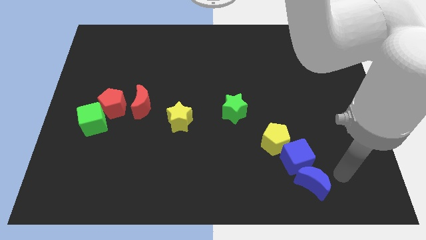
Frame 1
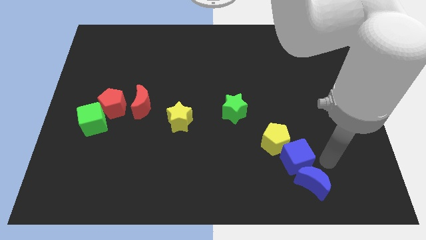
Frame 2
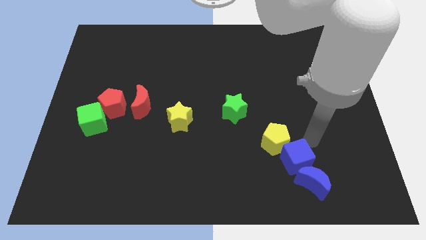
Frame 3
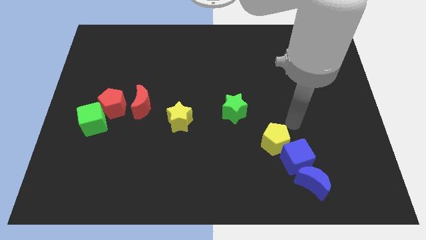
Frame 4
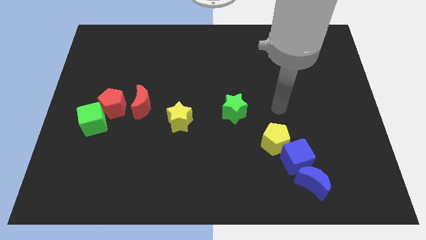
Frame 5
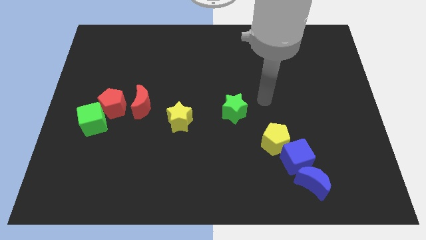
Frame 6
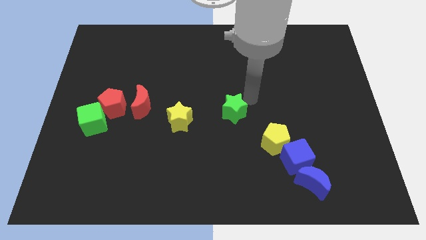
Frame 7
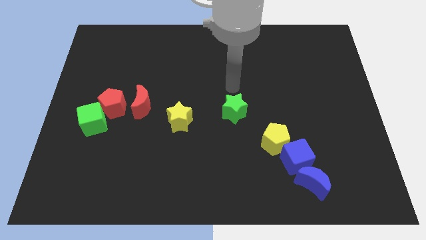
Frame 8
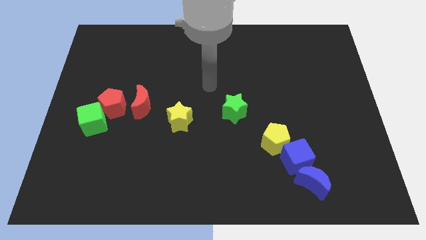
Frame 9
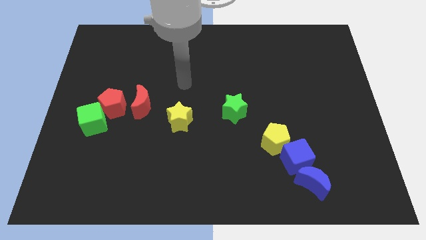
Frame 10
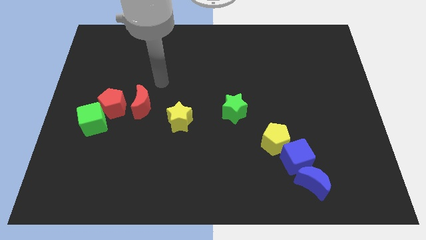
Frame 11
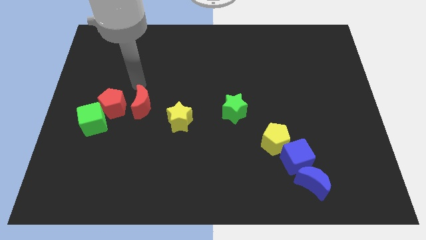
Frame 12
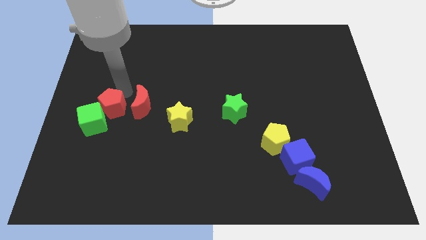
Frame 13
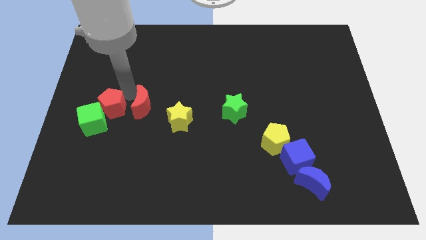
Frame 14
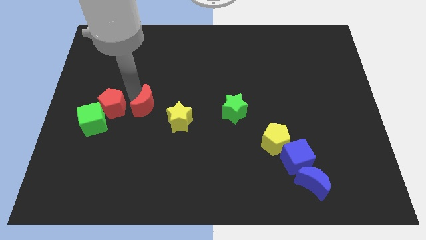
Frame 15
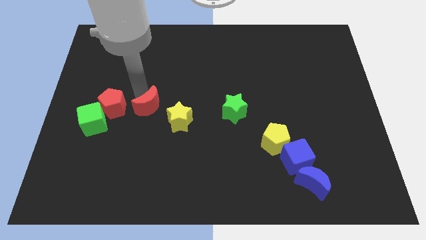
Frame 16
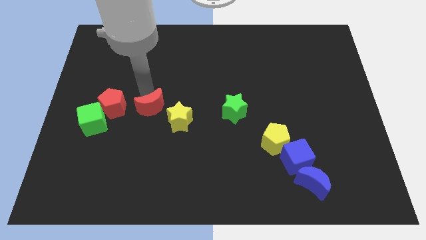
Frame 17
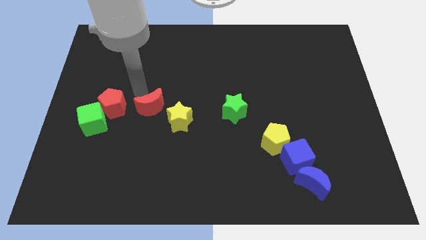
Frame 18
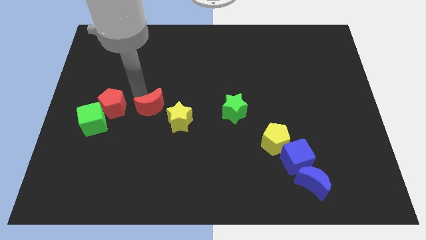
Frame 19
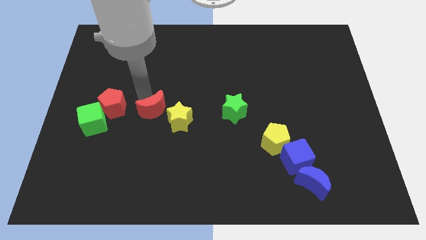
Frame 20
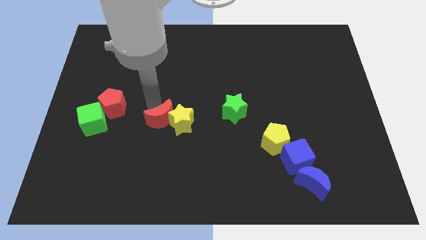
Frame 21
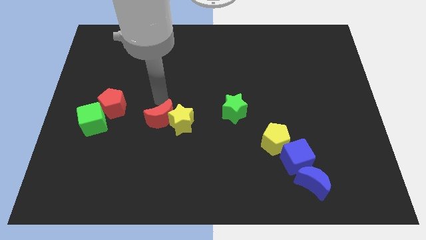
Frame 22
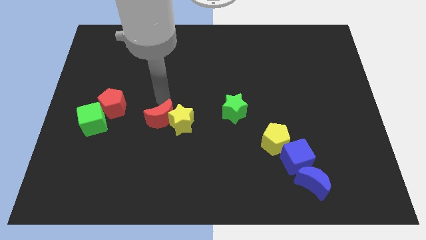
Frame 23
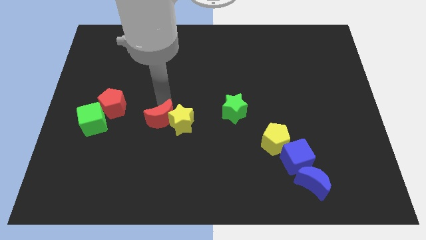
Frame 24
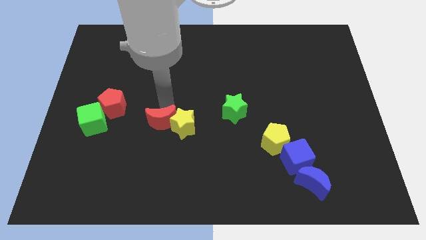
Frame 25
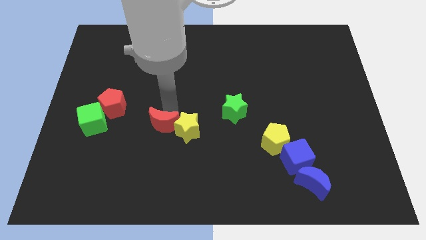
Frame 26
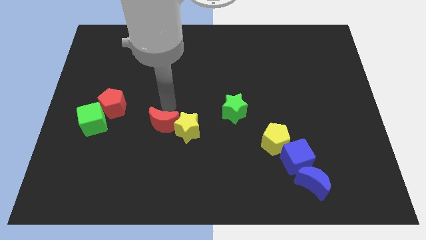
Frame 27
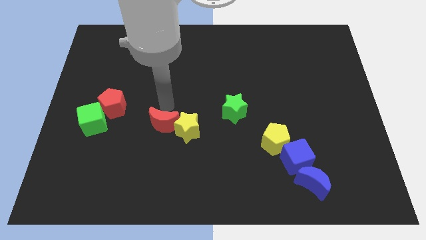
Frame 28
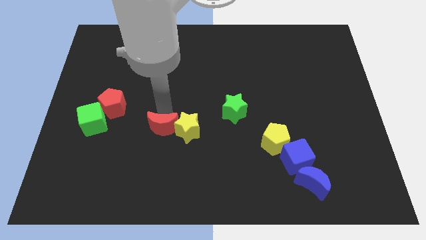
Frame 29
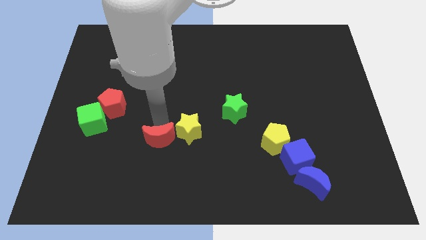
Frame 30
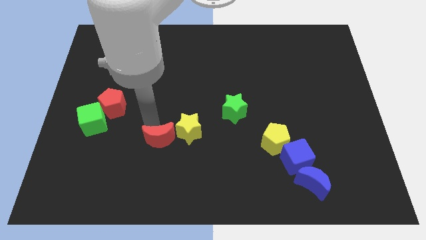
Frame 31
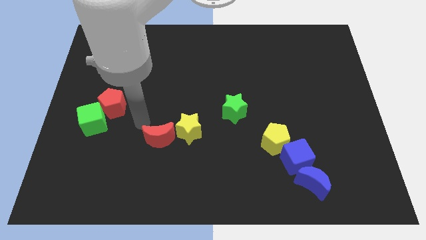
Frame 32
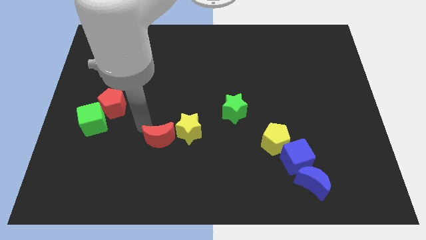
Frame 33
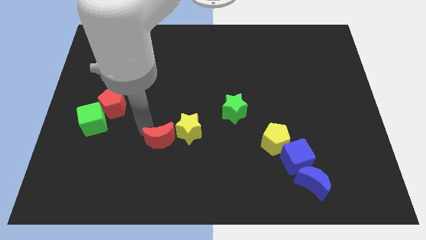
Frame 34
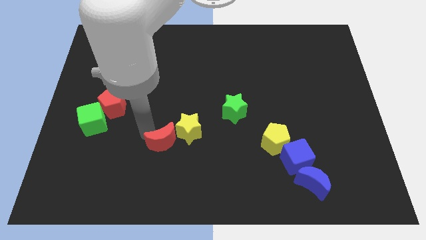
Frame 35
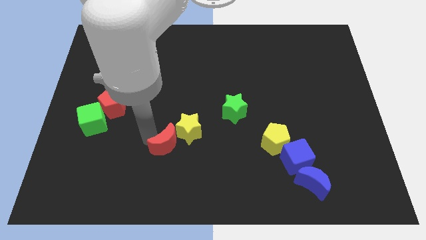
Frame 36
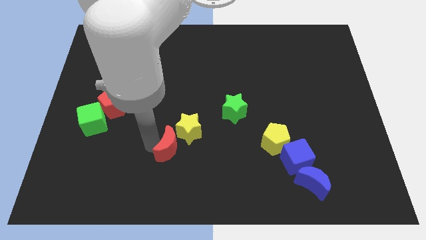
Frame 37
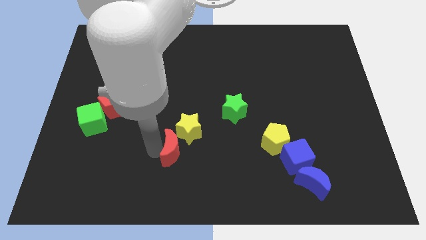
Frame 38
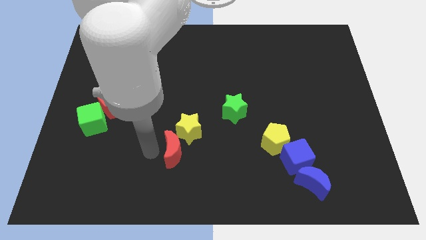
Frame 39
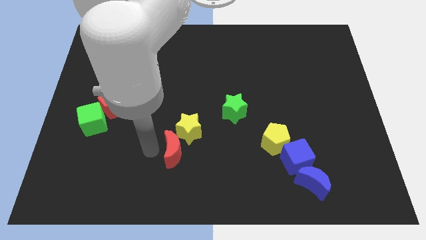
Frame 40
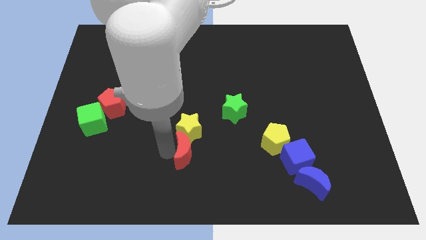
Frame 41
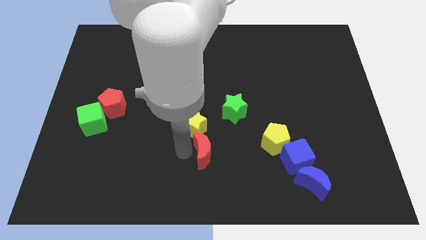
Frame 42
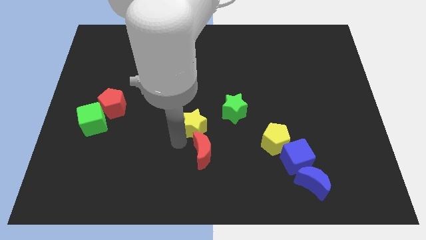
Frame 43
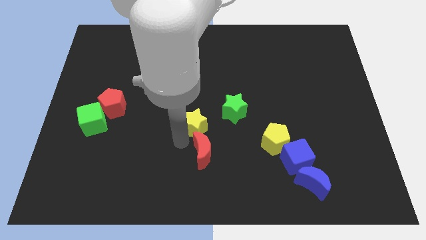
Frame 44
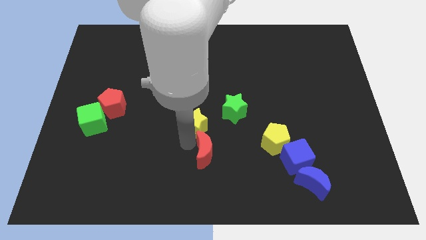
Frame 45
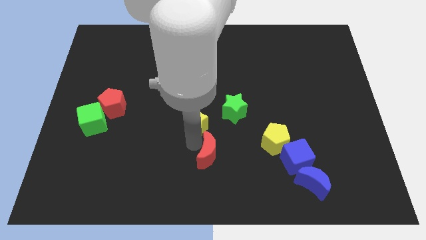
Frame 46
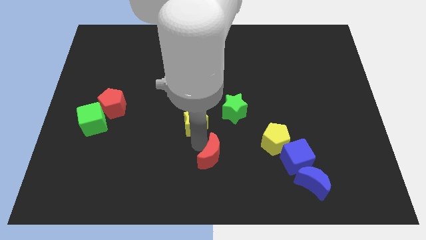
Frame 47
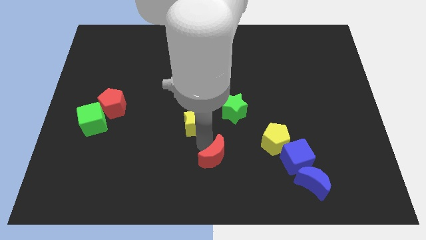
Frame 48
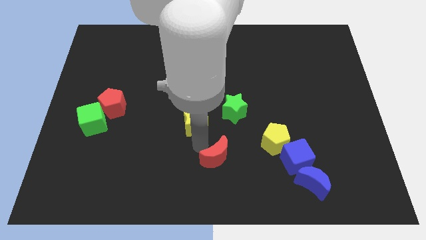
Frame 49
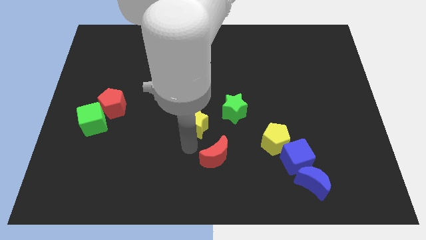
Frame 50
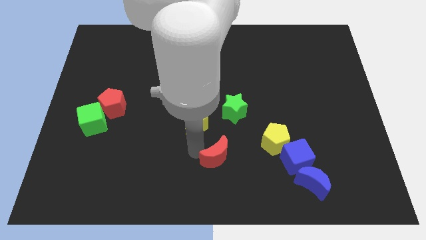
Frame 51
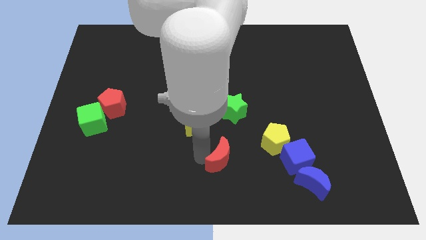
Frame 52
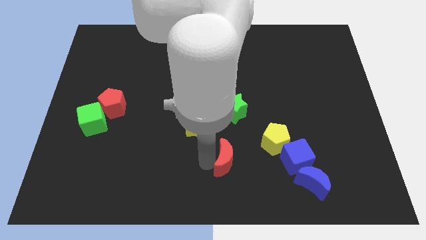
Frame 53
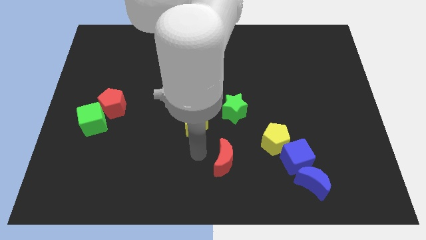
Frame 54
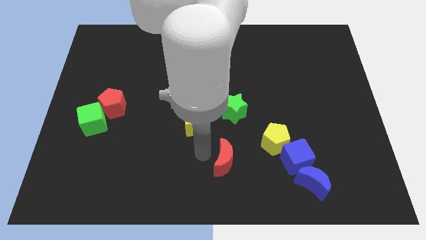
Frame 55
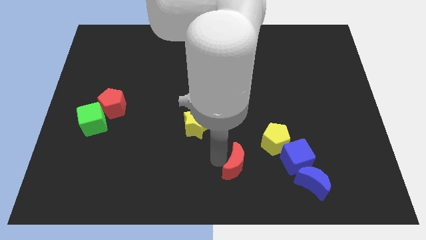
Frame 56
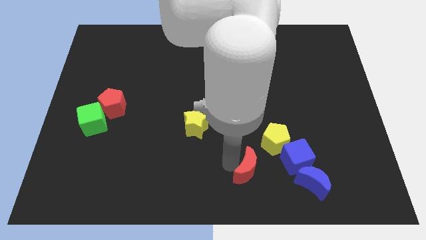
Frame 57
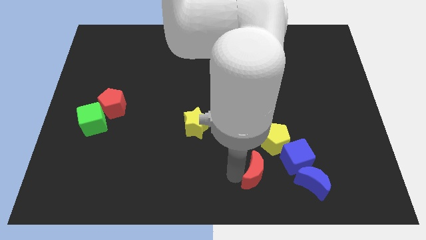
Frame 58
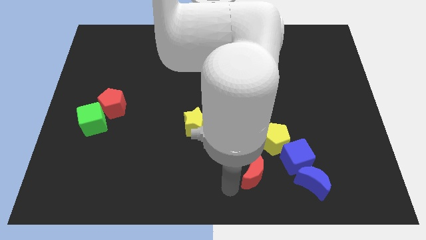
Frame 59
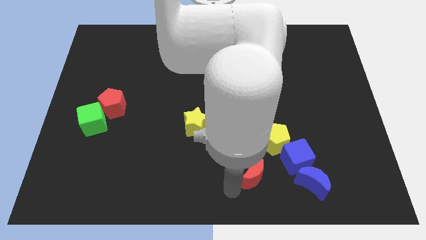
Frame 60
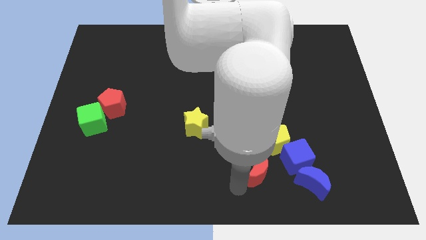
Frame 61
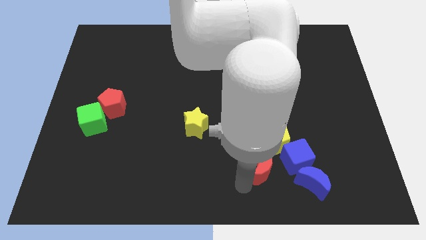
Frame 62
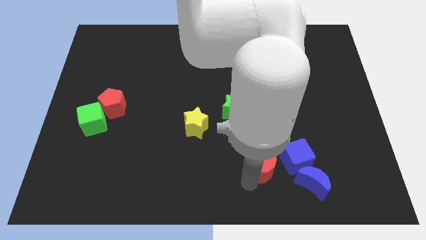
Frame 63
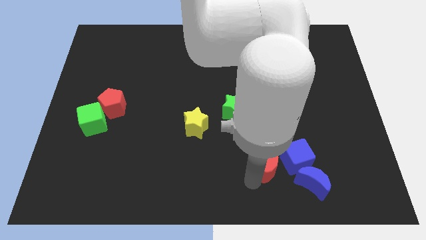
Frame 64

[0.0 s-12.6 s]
move the red moon to the blue cube

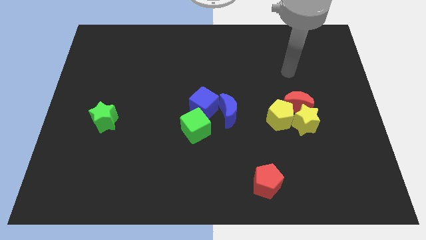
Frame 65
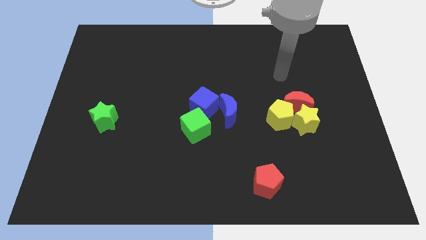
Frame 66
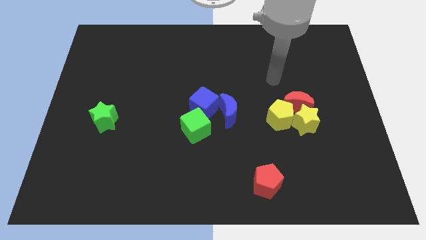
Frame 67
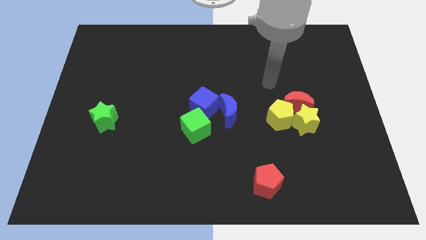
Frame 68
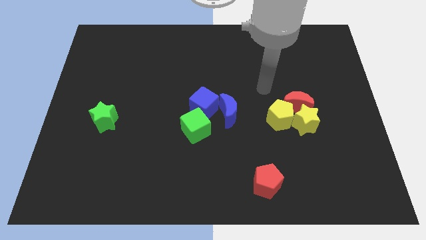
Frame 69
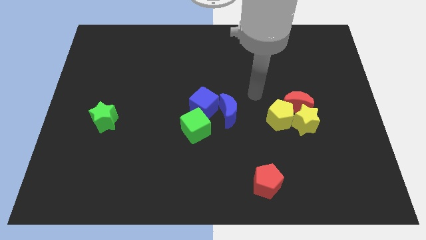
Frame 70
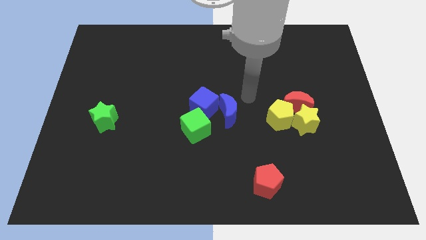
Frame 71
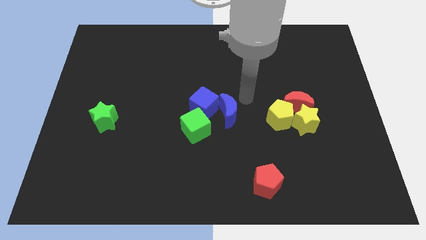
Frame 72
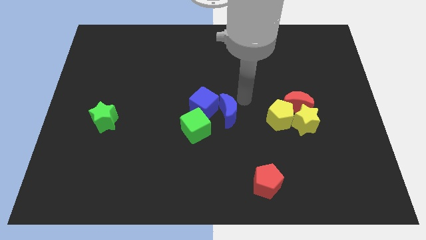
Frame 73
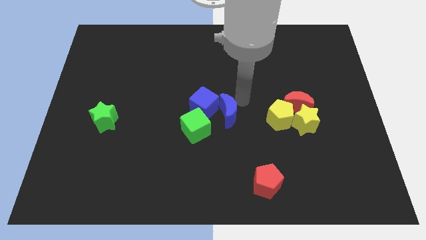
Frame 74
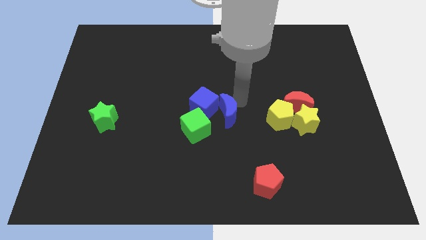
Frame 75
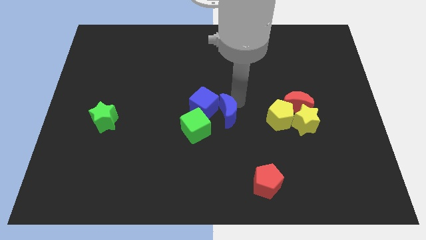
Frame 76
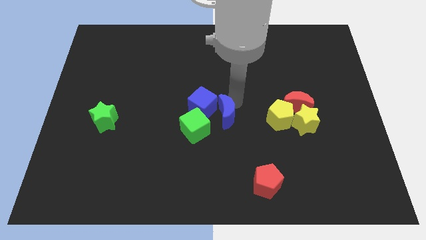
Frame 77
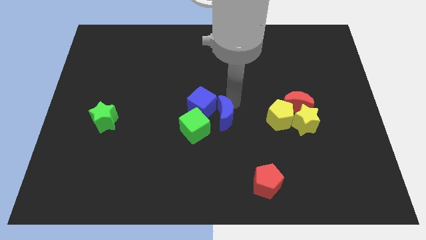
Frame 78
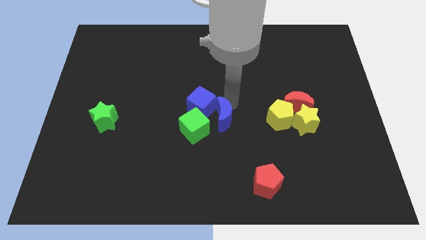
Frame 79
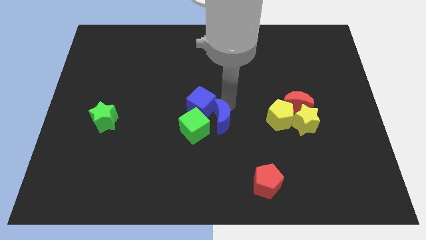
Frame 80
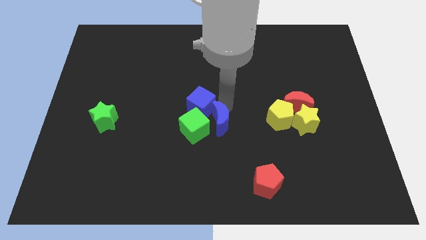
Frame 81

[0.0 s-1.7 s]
move the blue moon towards the green cube
